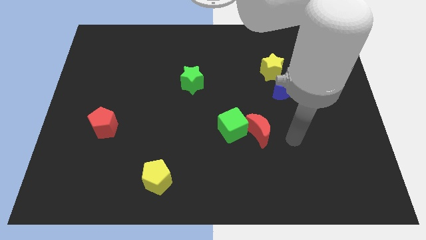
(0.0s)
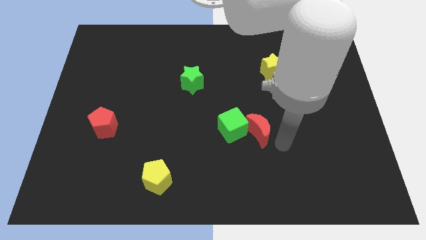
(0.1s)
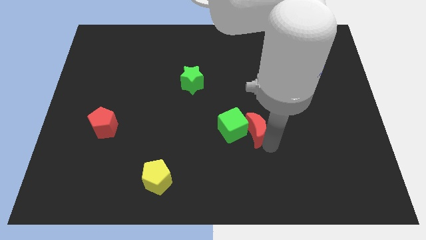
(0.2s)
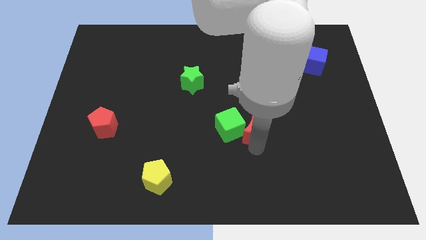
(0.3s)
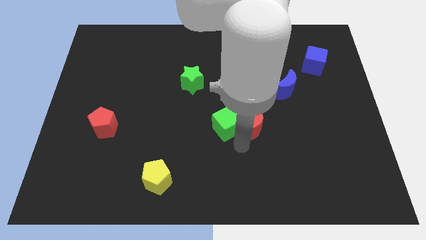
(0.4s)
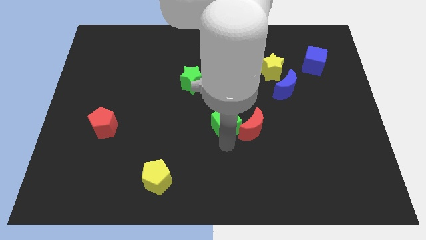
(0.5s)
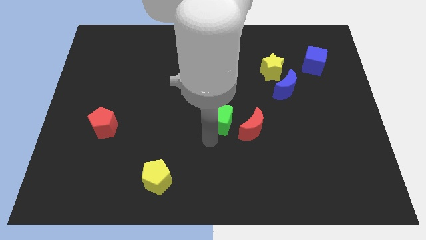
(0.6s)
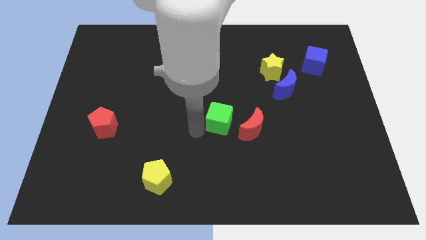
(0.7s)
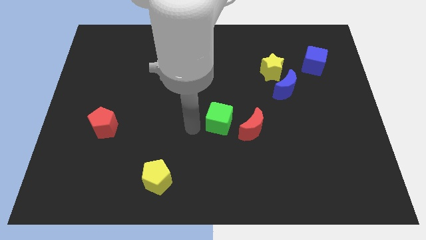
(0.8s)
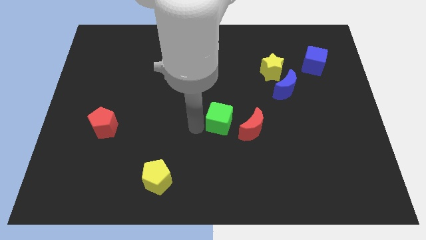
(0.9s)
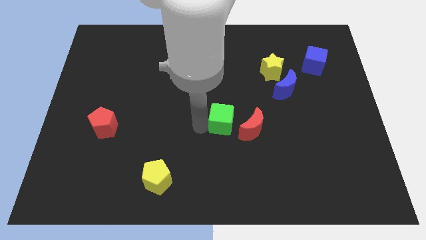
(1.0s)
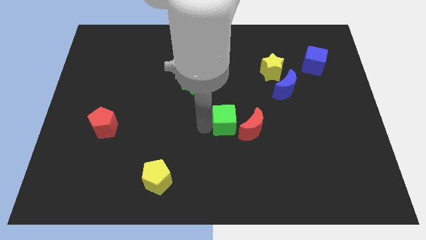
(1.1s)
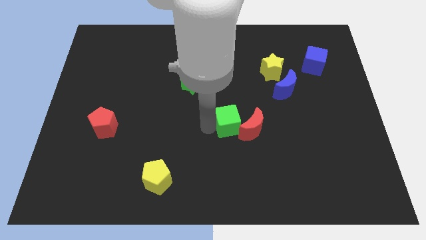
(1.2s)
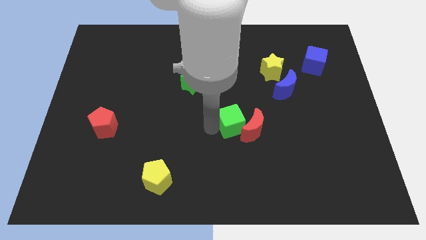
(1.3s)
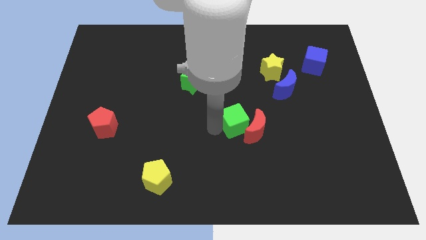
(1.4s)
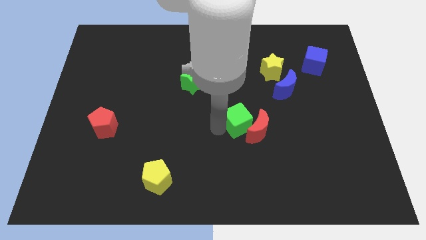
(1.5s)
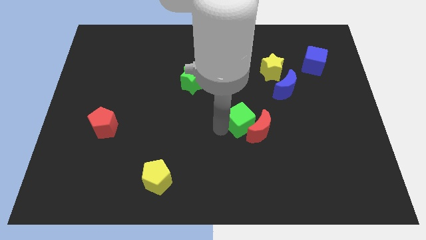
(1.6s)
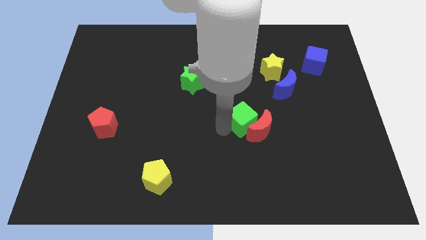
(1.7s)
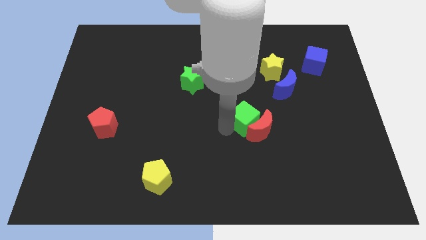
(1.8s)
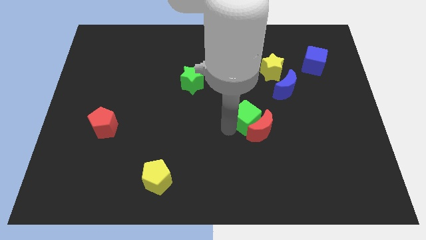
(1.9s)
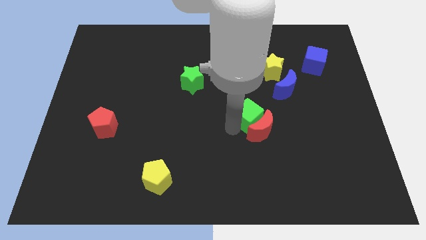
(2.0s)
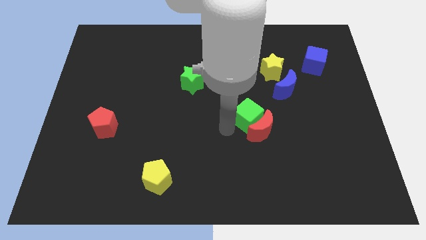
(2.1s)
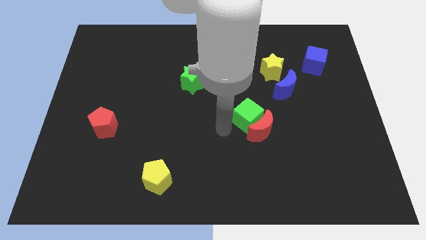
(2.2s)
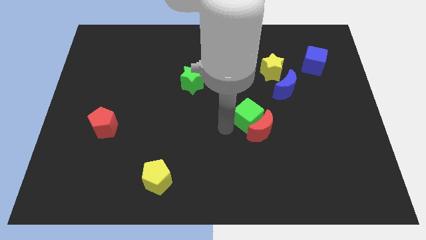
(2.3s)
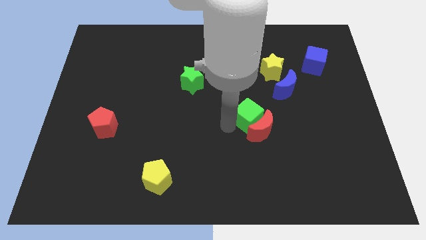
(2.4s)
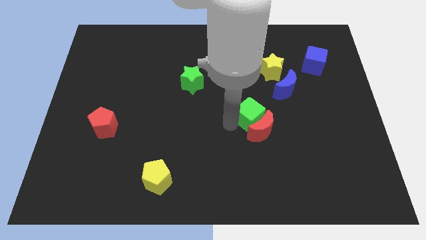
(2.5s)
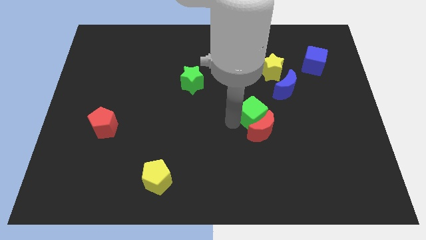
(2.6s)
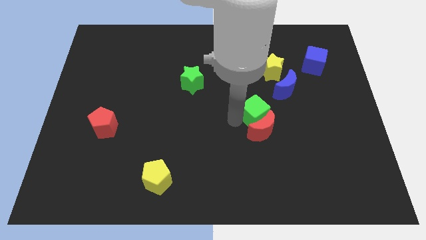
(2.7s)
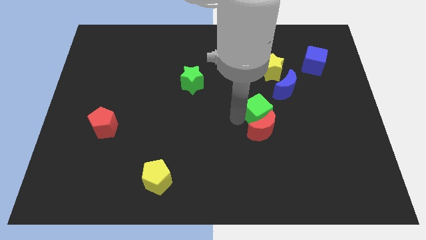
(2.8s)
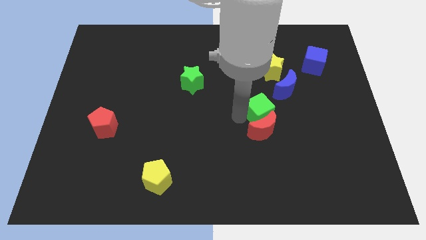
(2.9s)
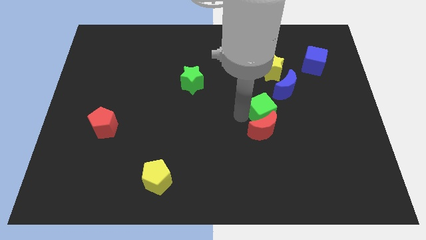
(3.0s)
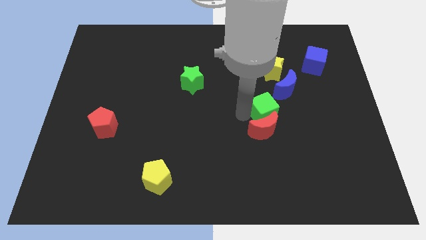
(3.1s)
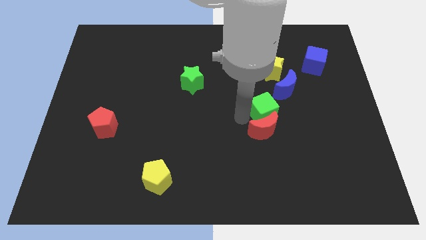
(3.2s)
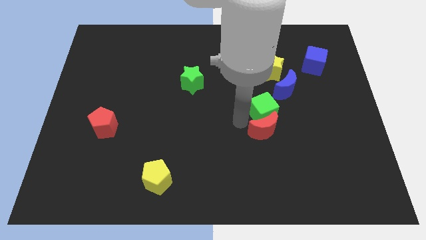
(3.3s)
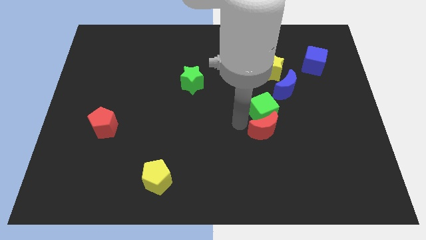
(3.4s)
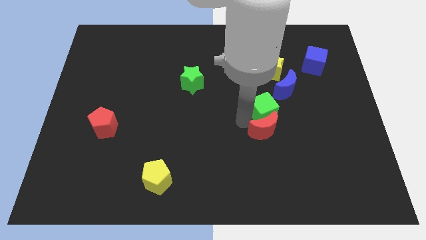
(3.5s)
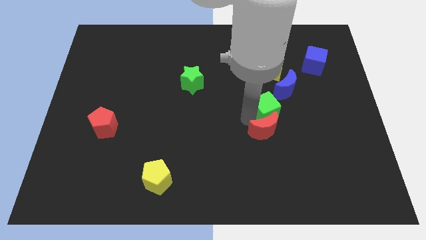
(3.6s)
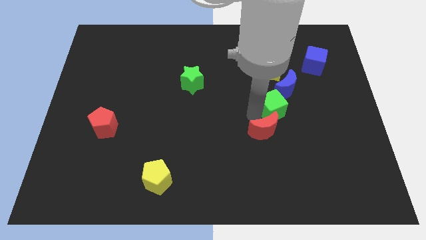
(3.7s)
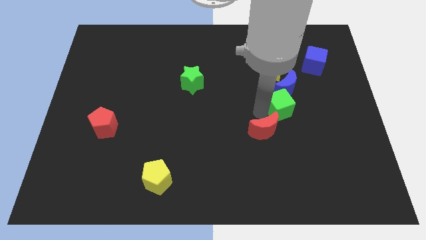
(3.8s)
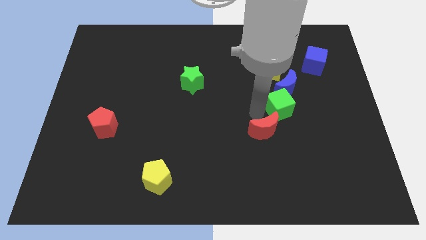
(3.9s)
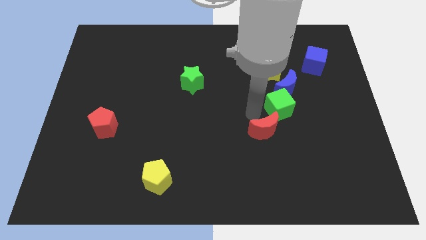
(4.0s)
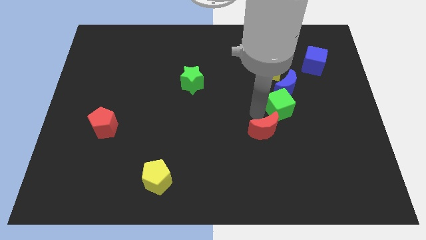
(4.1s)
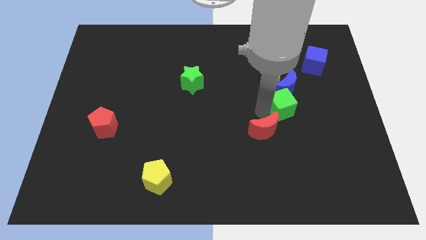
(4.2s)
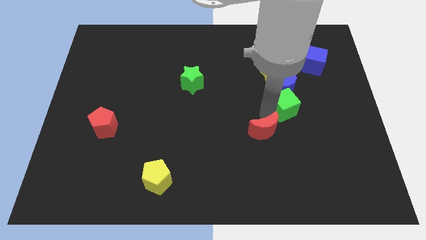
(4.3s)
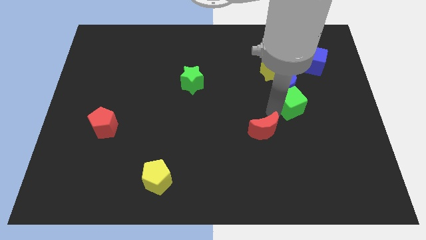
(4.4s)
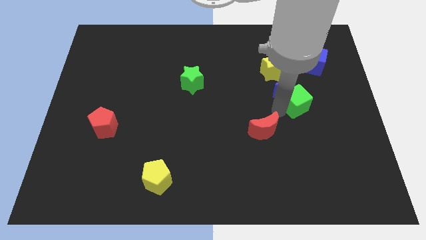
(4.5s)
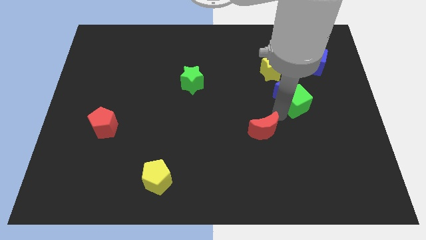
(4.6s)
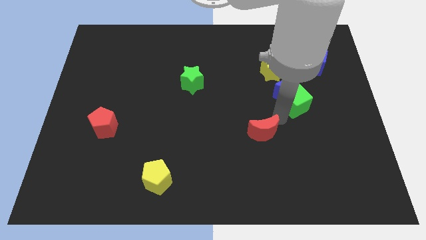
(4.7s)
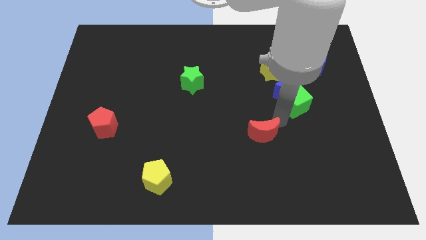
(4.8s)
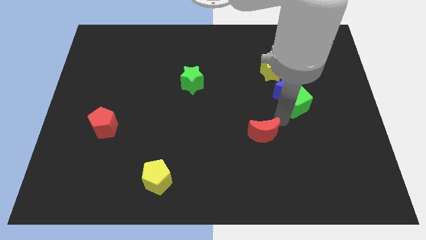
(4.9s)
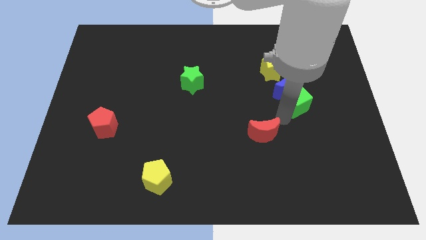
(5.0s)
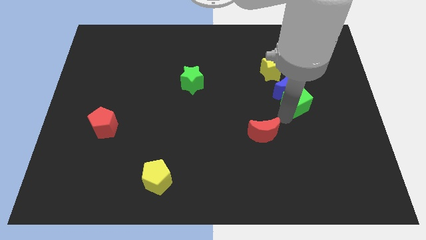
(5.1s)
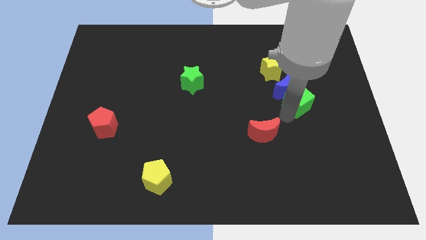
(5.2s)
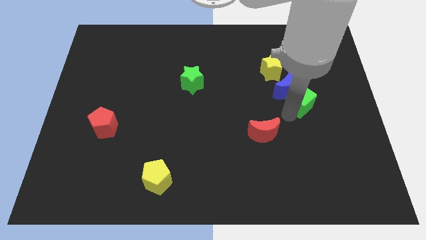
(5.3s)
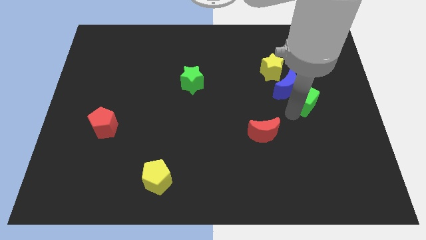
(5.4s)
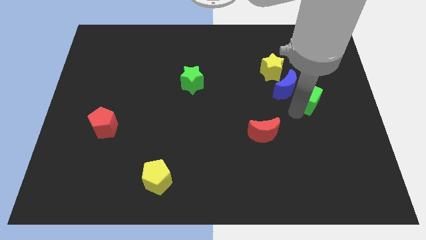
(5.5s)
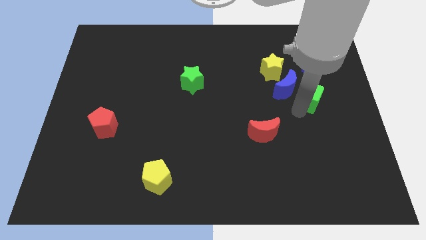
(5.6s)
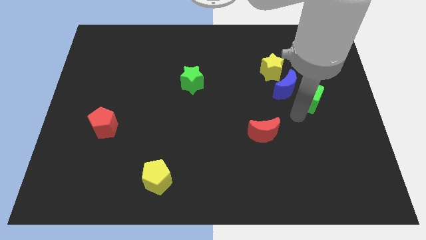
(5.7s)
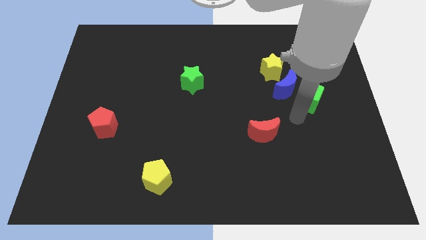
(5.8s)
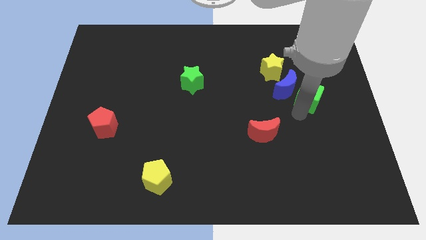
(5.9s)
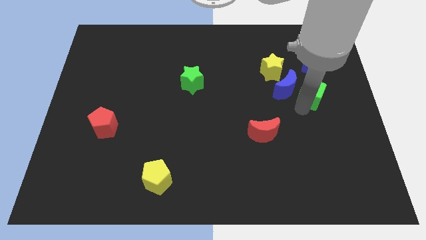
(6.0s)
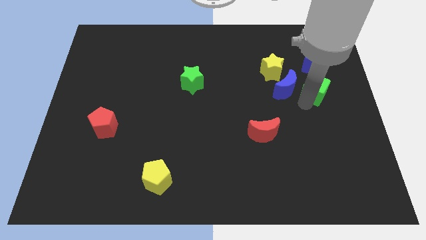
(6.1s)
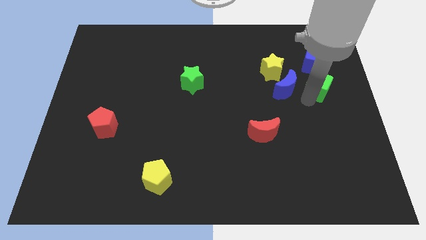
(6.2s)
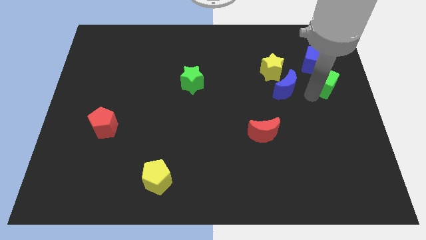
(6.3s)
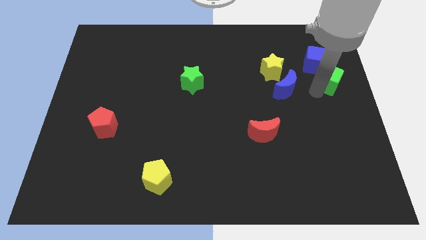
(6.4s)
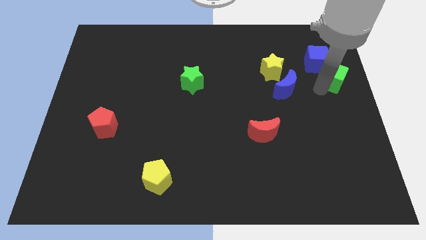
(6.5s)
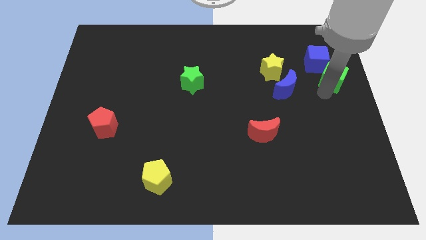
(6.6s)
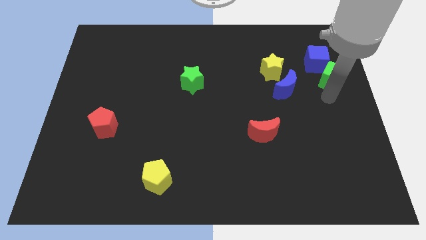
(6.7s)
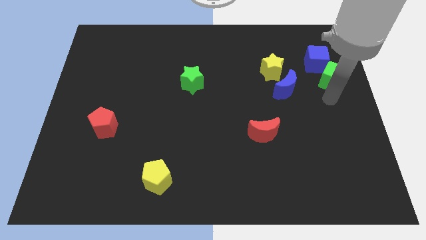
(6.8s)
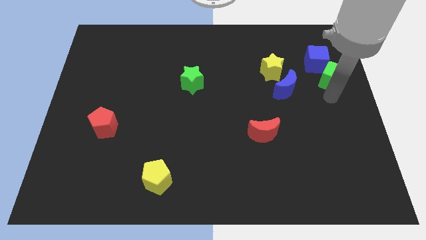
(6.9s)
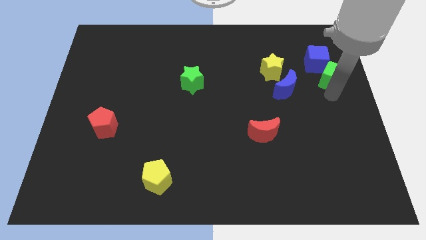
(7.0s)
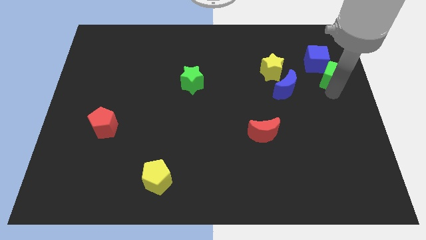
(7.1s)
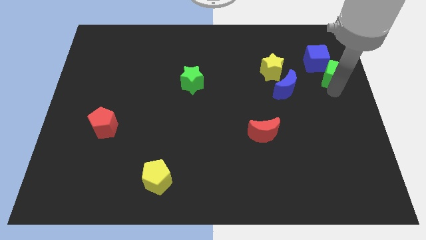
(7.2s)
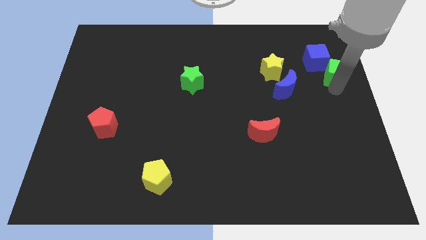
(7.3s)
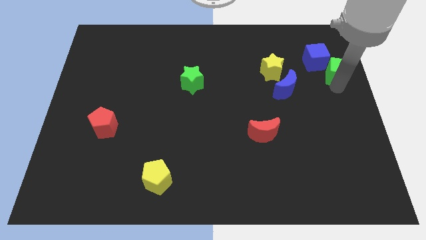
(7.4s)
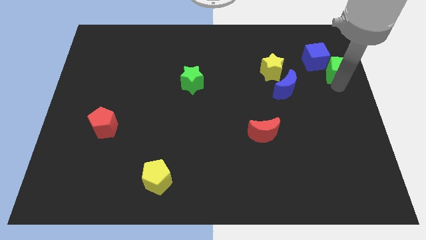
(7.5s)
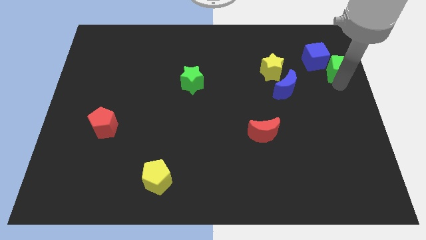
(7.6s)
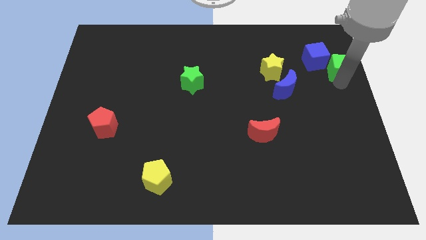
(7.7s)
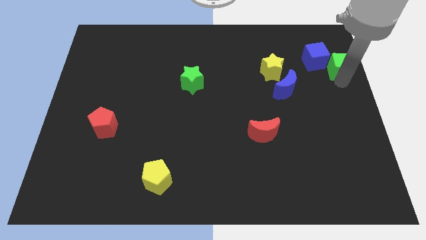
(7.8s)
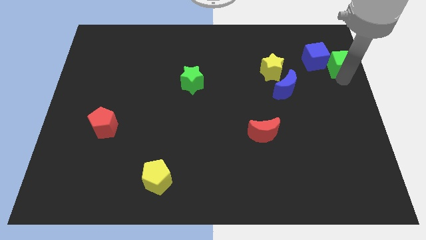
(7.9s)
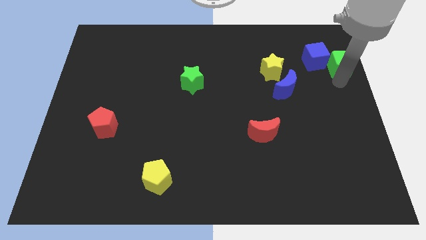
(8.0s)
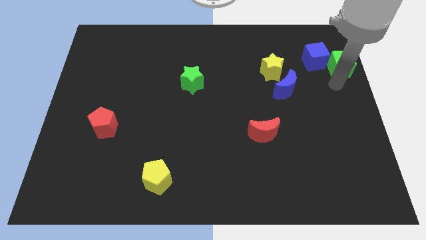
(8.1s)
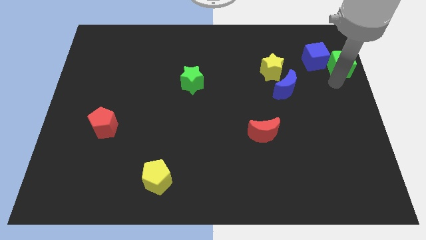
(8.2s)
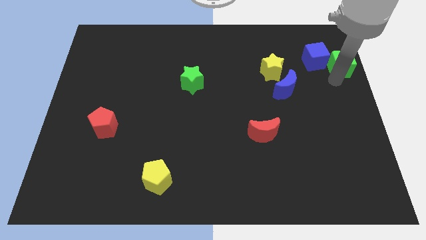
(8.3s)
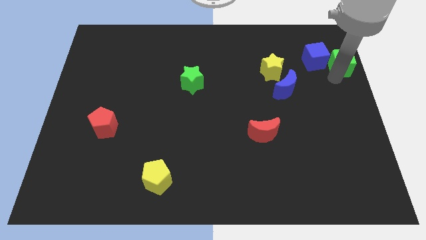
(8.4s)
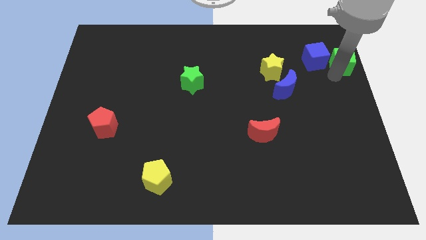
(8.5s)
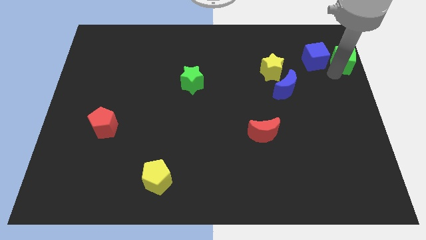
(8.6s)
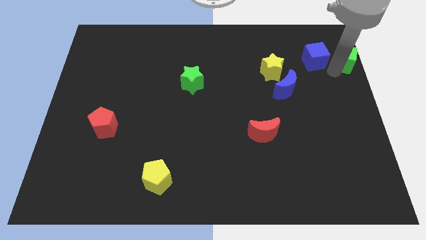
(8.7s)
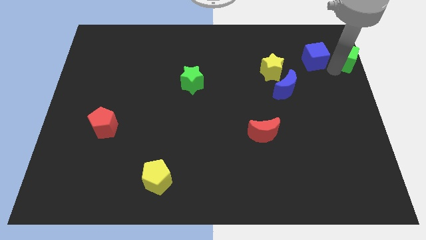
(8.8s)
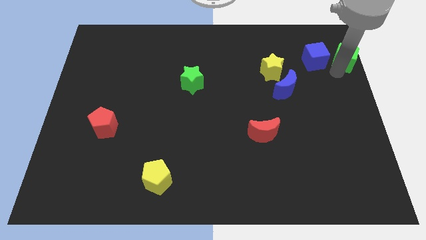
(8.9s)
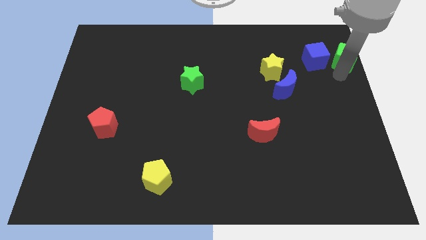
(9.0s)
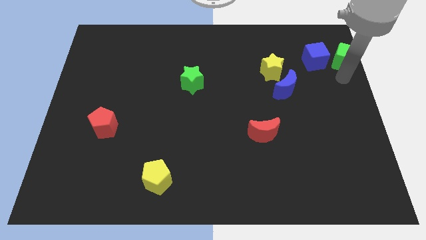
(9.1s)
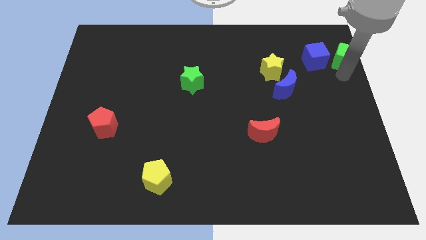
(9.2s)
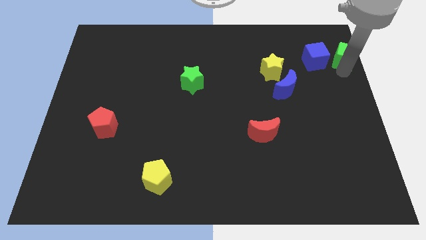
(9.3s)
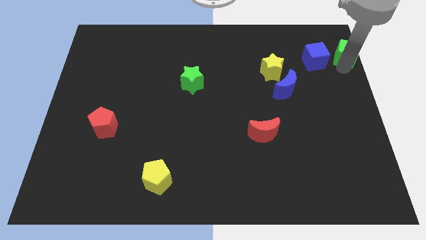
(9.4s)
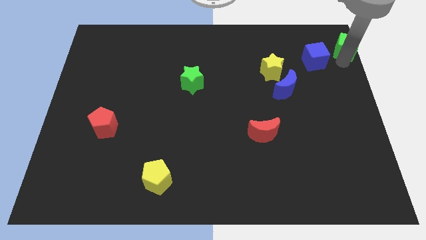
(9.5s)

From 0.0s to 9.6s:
move the green cube to the top right
